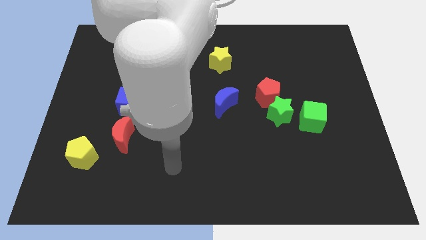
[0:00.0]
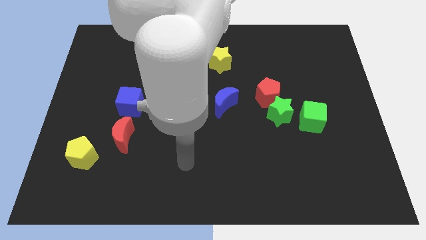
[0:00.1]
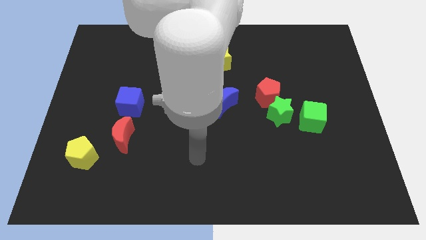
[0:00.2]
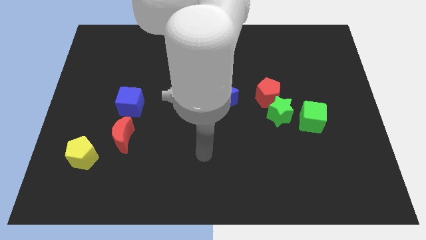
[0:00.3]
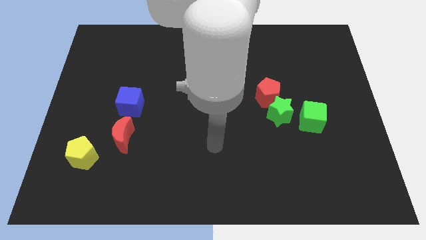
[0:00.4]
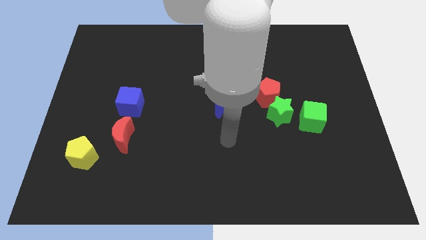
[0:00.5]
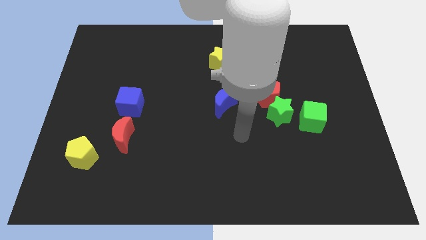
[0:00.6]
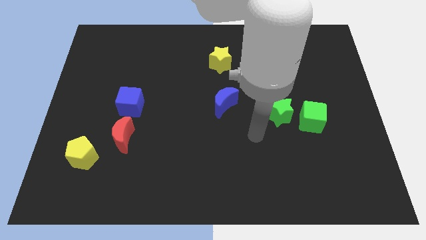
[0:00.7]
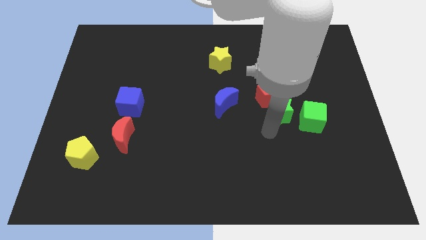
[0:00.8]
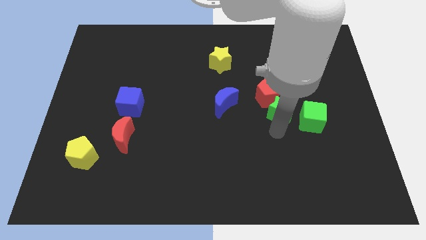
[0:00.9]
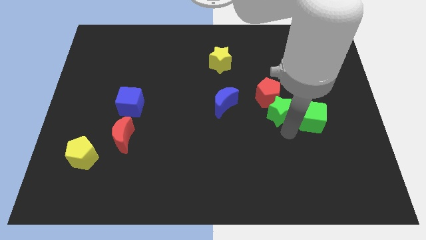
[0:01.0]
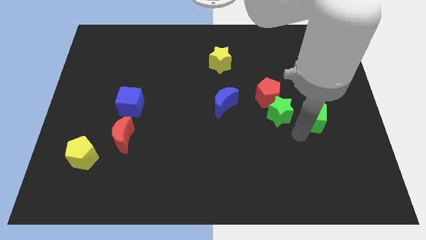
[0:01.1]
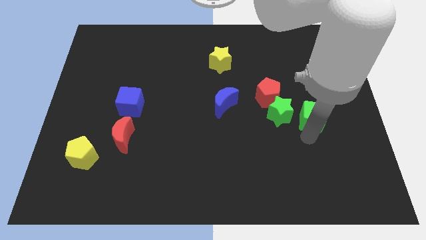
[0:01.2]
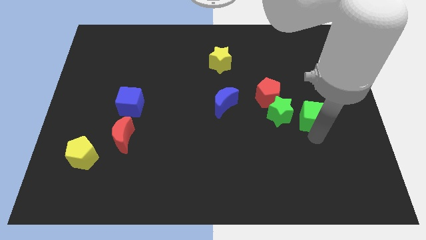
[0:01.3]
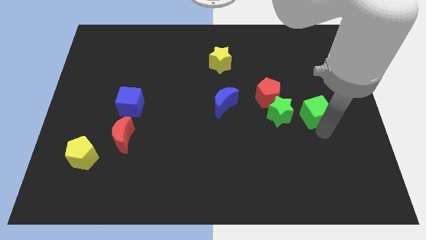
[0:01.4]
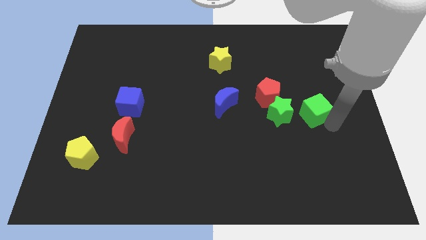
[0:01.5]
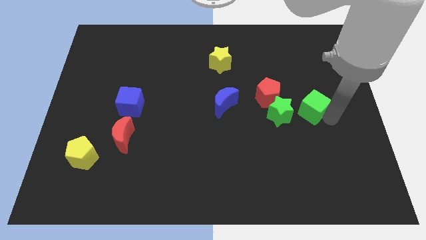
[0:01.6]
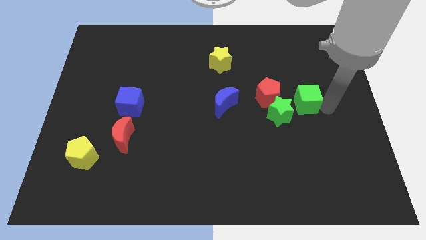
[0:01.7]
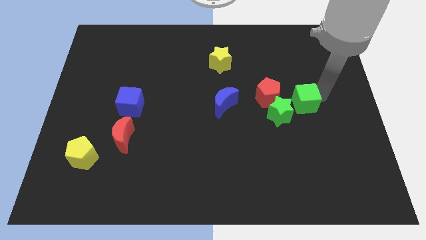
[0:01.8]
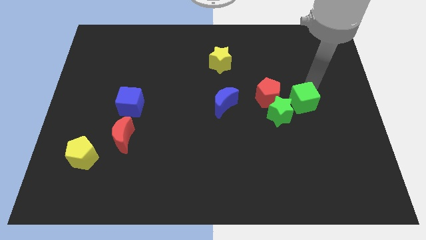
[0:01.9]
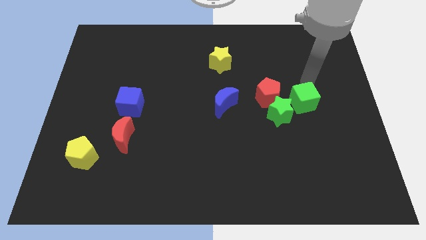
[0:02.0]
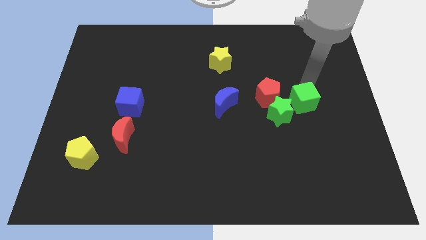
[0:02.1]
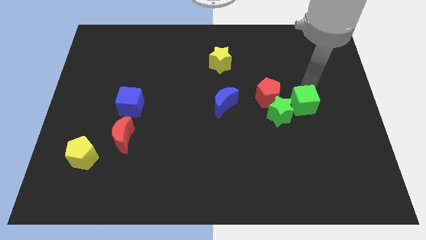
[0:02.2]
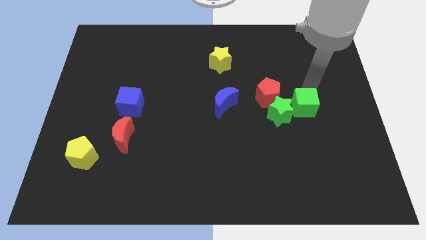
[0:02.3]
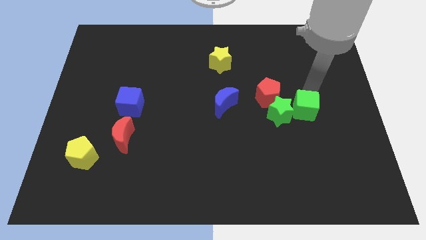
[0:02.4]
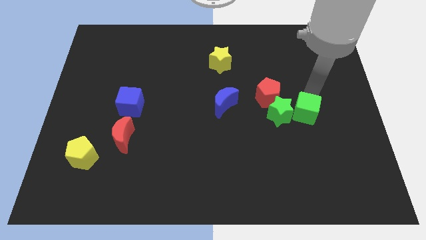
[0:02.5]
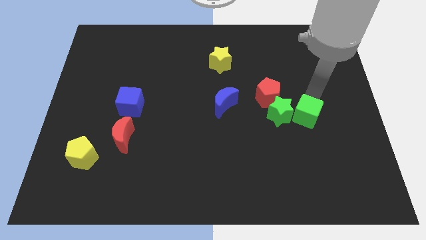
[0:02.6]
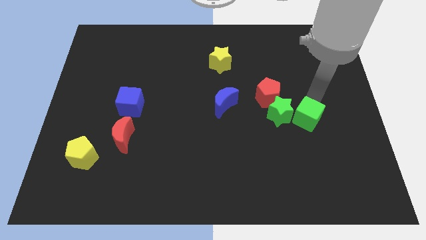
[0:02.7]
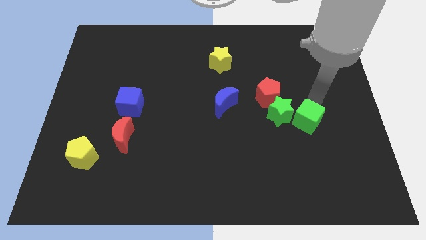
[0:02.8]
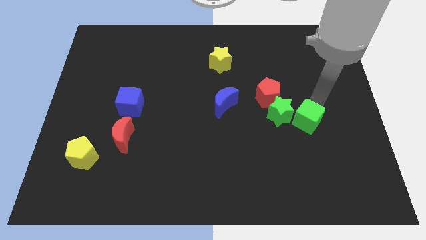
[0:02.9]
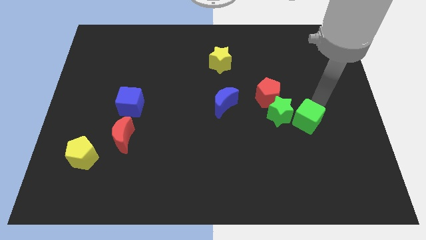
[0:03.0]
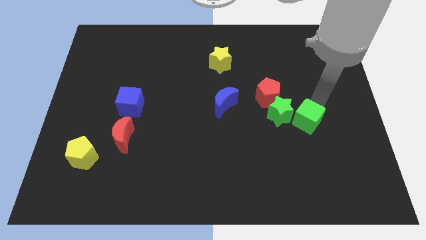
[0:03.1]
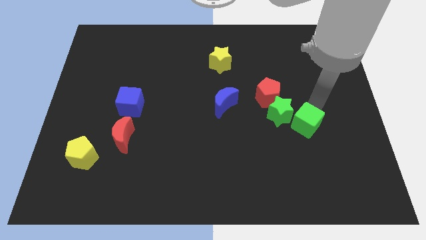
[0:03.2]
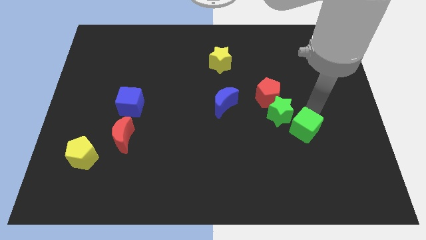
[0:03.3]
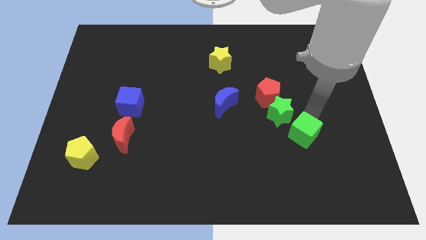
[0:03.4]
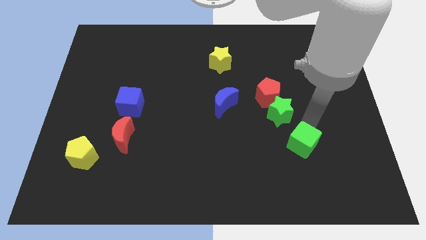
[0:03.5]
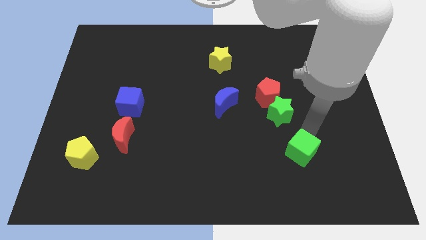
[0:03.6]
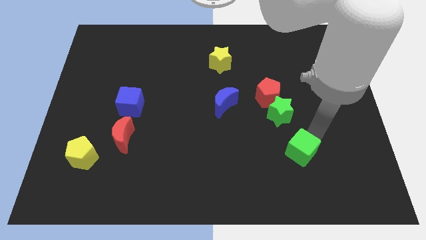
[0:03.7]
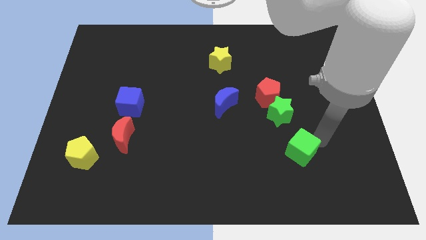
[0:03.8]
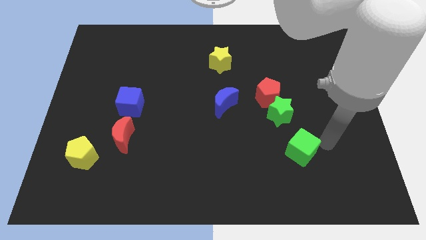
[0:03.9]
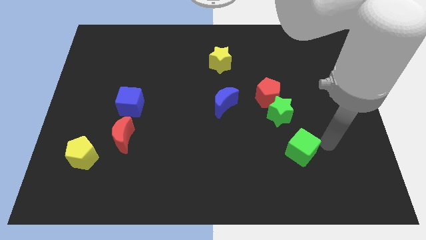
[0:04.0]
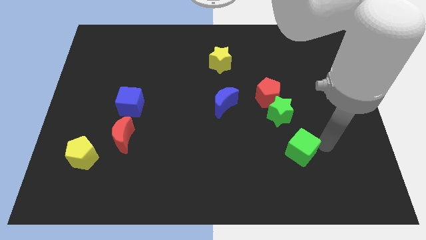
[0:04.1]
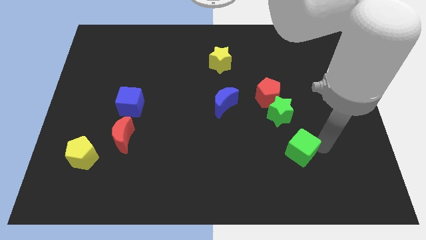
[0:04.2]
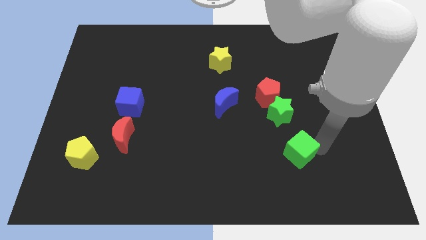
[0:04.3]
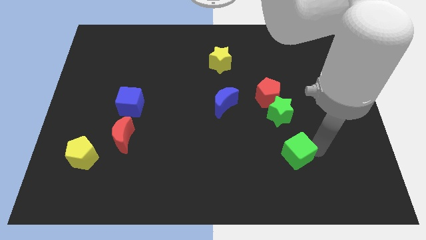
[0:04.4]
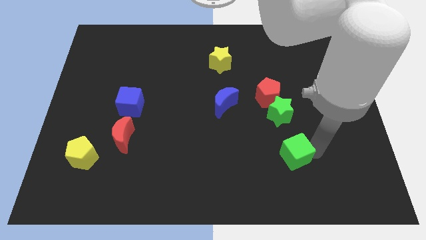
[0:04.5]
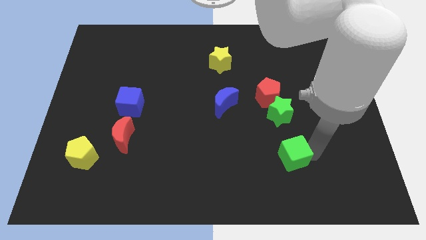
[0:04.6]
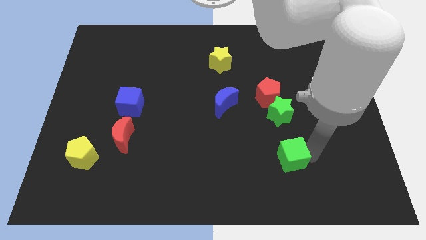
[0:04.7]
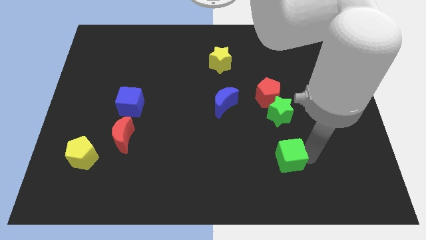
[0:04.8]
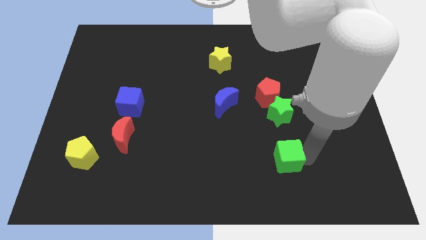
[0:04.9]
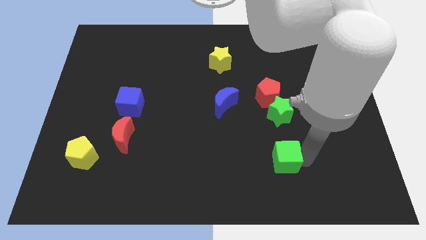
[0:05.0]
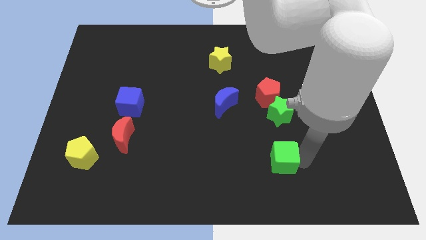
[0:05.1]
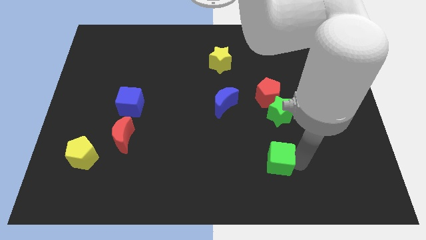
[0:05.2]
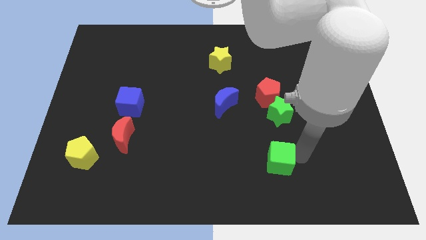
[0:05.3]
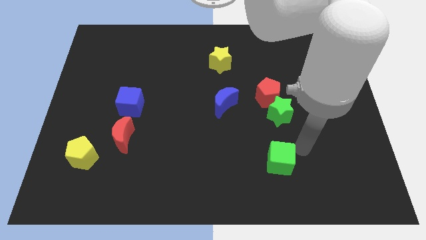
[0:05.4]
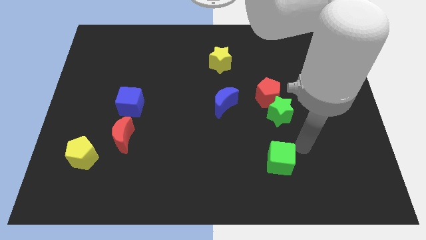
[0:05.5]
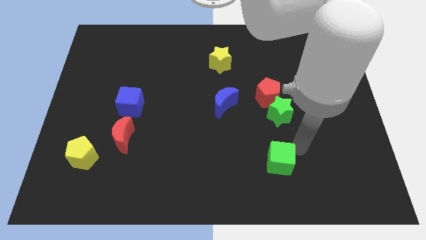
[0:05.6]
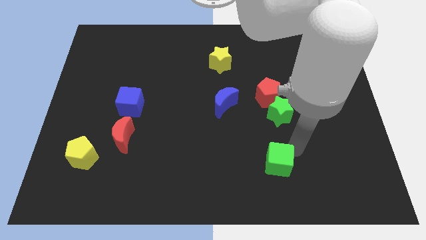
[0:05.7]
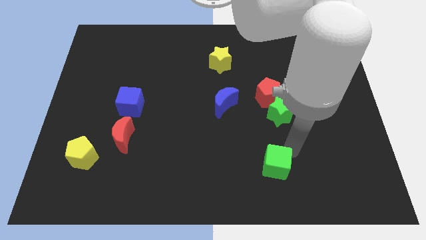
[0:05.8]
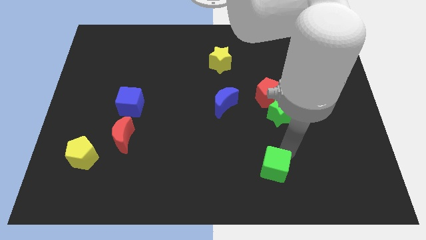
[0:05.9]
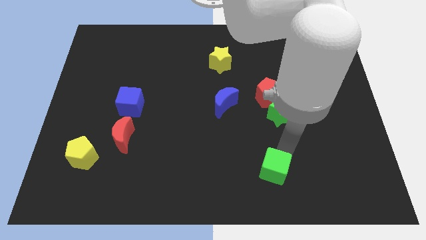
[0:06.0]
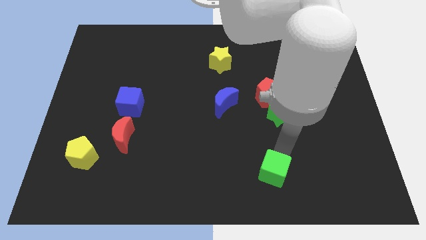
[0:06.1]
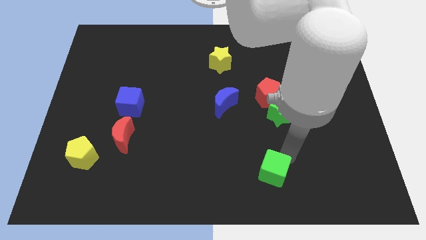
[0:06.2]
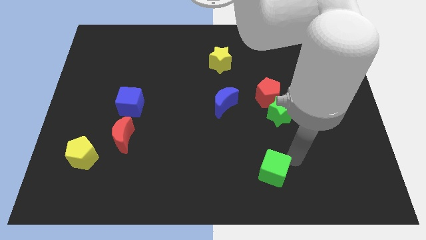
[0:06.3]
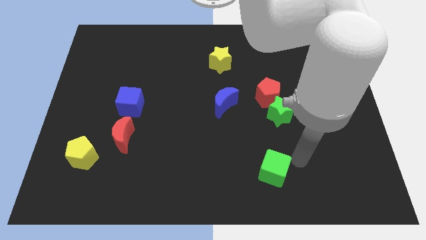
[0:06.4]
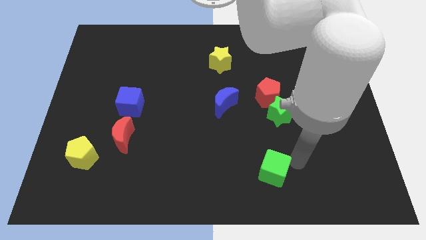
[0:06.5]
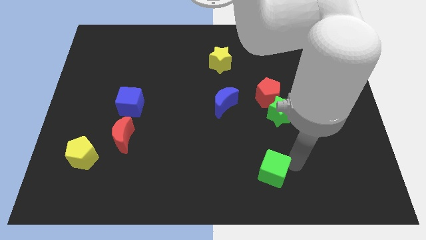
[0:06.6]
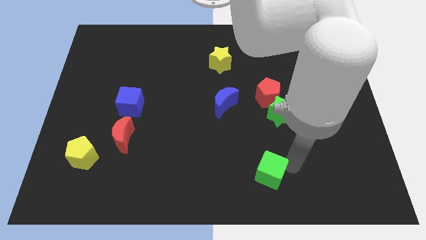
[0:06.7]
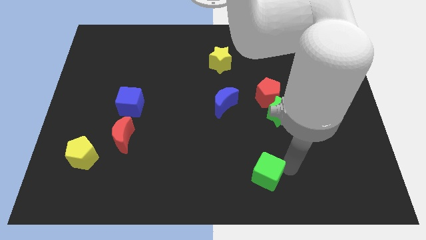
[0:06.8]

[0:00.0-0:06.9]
put the green cube to the bottom
